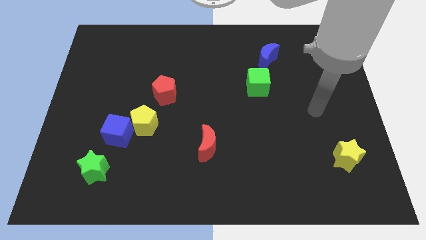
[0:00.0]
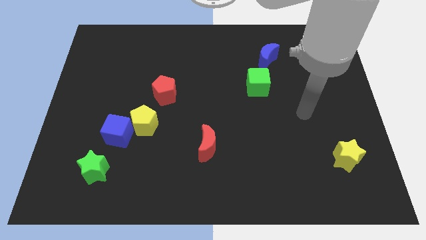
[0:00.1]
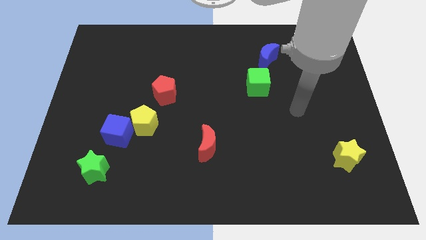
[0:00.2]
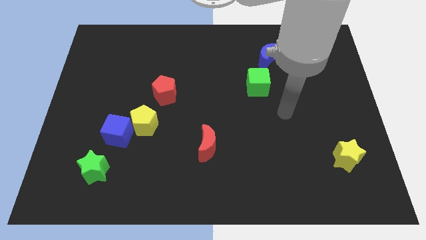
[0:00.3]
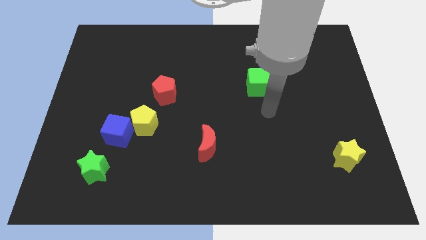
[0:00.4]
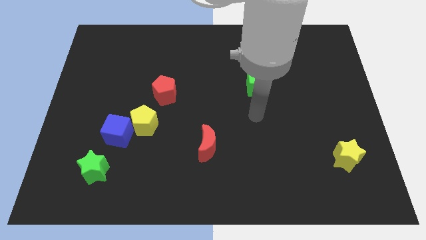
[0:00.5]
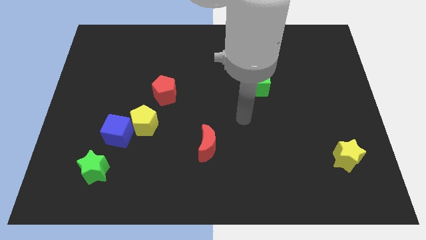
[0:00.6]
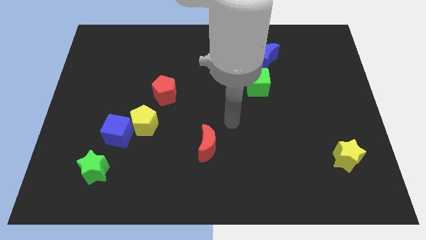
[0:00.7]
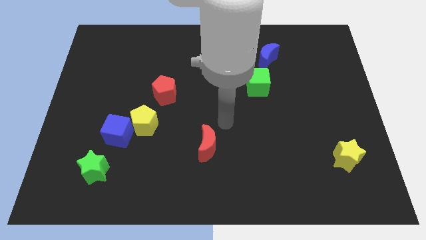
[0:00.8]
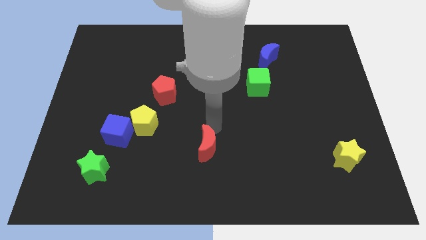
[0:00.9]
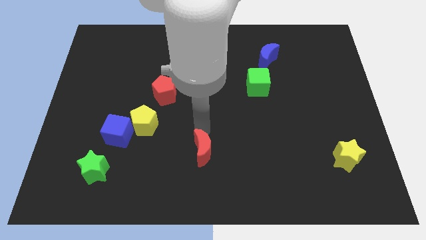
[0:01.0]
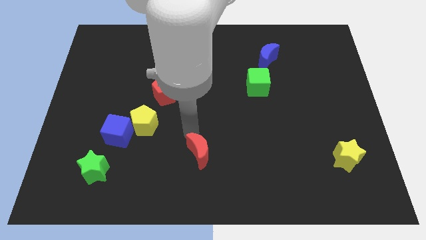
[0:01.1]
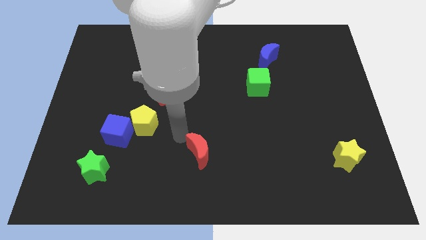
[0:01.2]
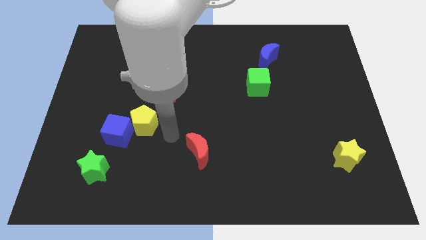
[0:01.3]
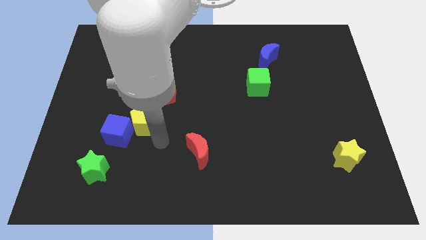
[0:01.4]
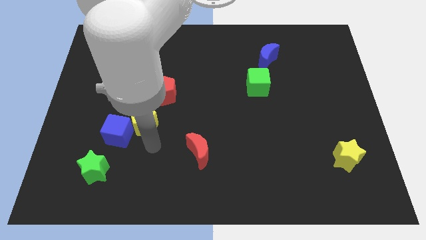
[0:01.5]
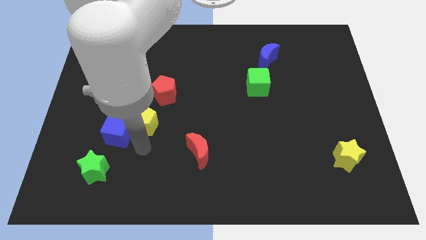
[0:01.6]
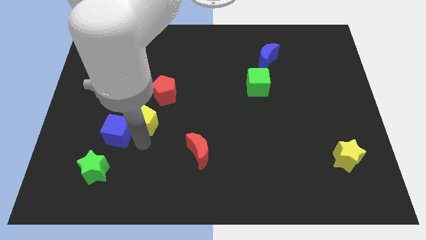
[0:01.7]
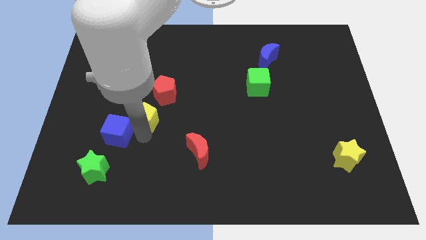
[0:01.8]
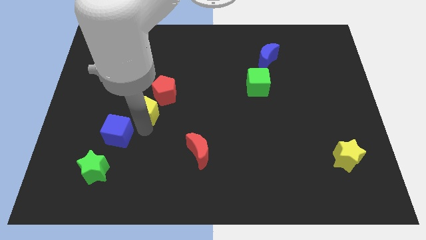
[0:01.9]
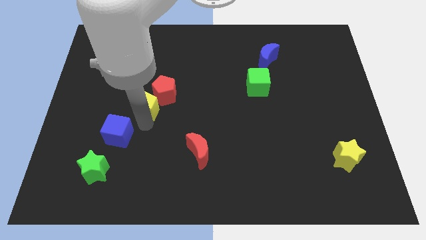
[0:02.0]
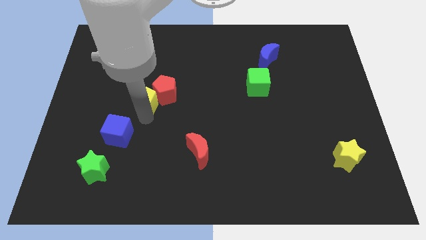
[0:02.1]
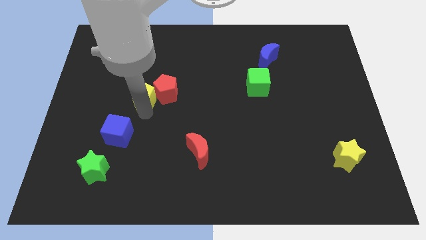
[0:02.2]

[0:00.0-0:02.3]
slide the yellow pentagon up a little bit

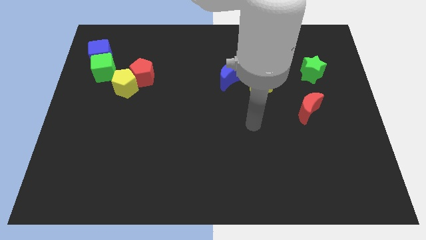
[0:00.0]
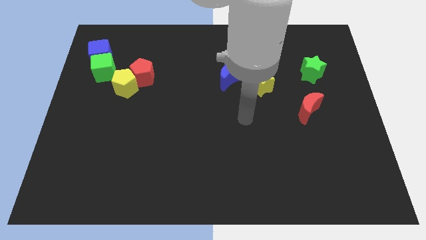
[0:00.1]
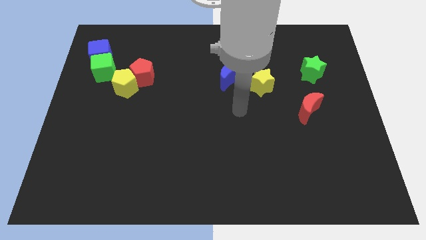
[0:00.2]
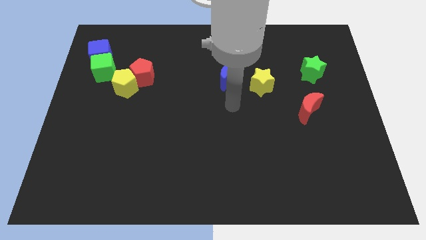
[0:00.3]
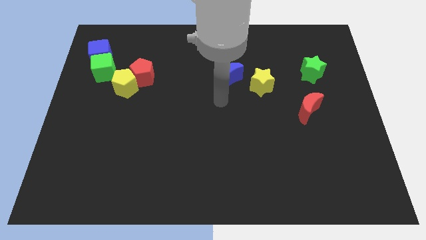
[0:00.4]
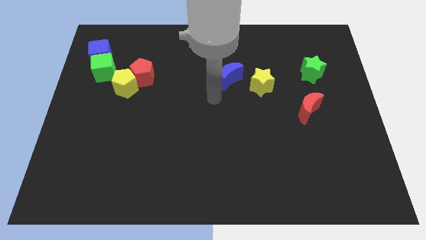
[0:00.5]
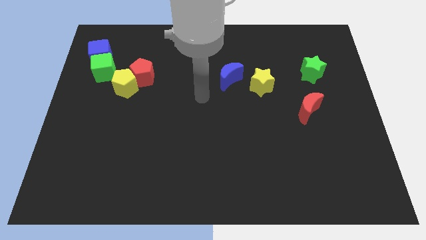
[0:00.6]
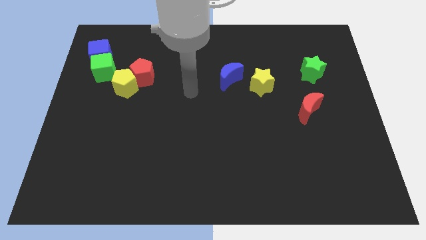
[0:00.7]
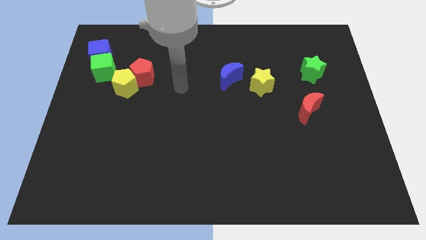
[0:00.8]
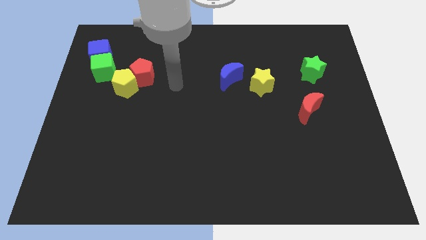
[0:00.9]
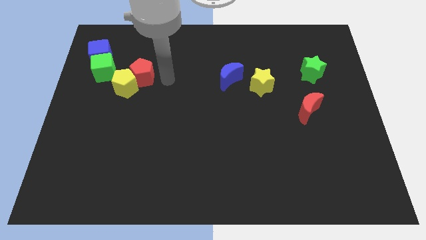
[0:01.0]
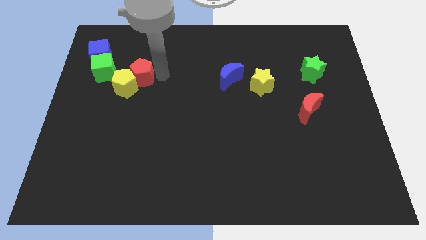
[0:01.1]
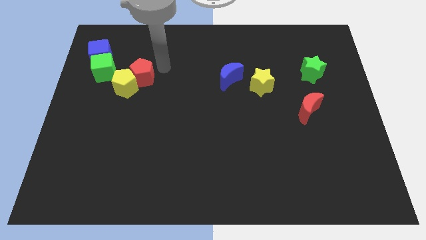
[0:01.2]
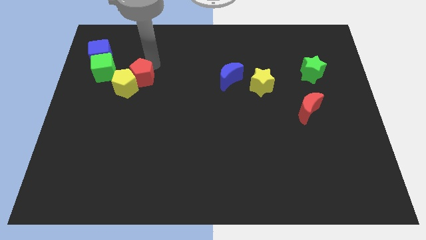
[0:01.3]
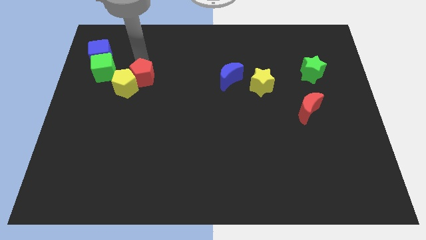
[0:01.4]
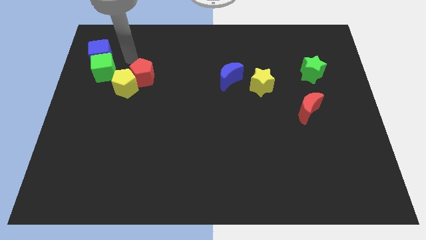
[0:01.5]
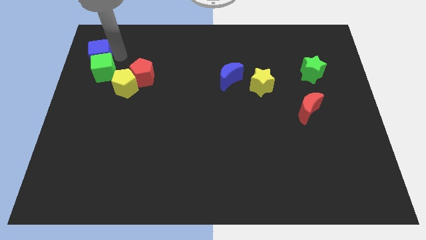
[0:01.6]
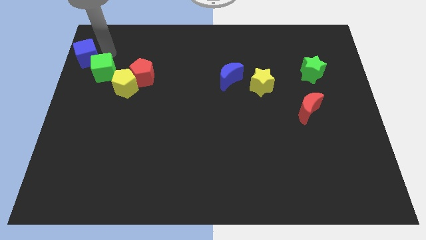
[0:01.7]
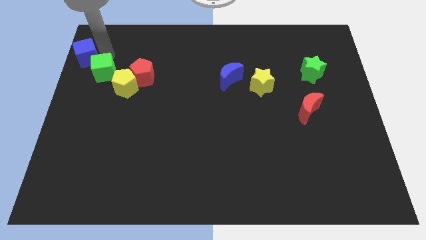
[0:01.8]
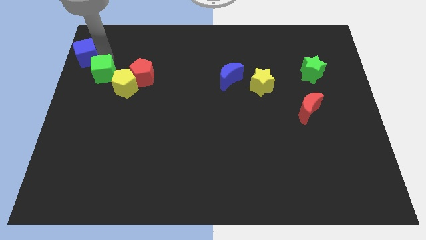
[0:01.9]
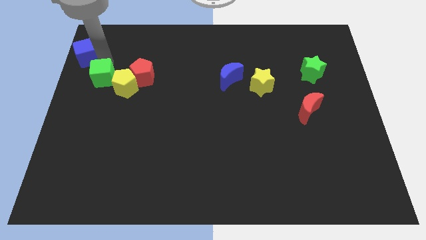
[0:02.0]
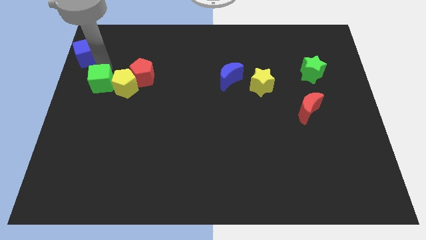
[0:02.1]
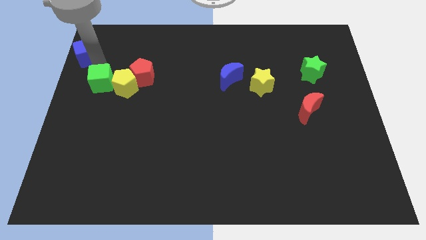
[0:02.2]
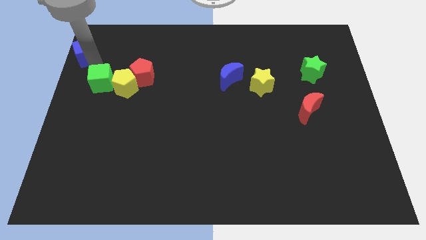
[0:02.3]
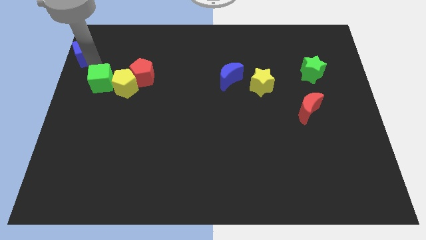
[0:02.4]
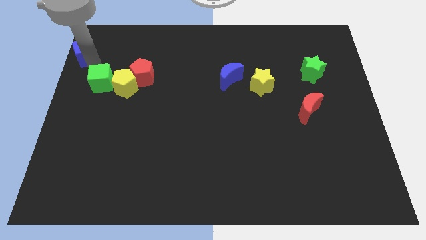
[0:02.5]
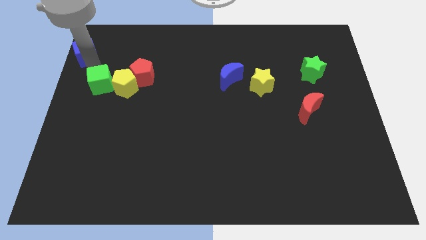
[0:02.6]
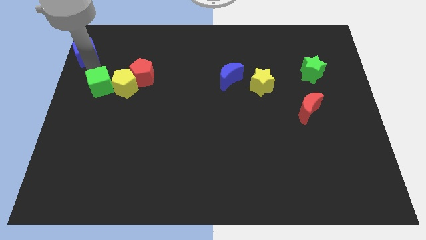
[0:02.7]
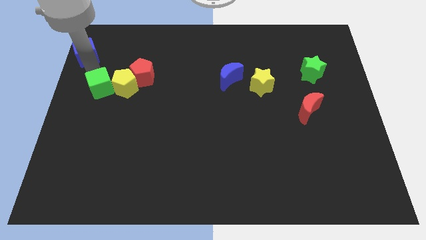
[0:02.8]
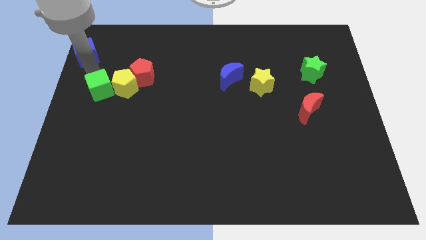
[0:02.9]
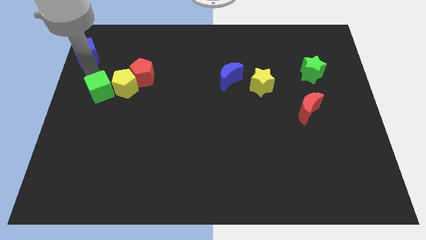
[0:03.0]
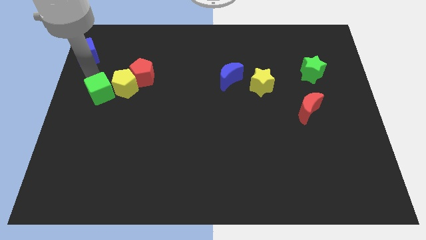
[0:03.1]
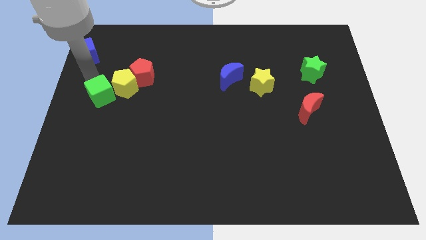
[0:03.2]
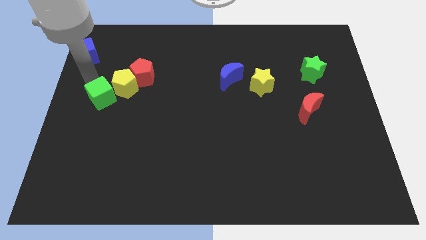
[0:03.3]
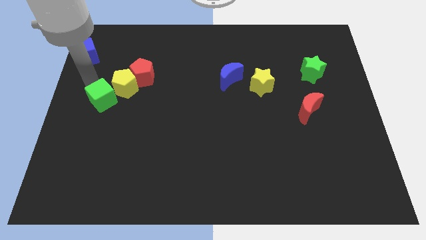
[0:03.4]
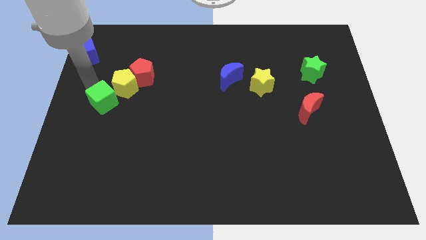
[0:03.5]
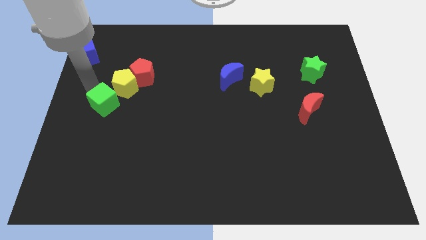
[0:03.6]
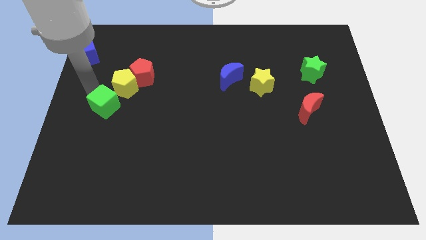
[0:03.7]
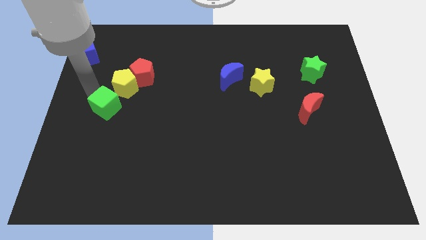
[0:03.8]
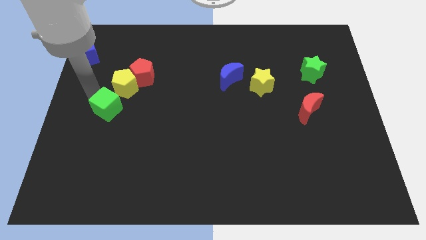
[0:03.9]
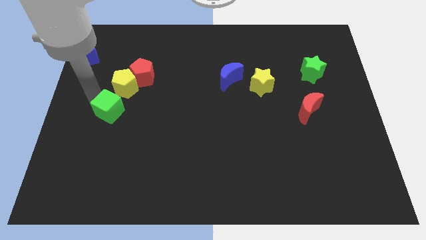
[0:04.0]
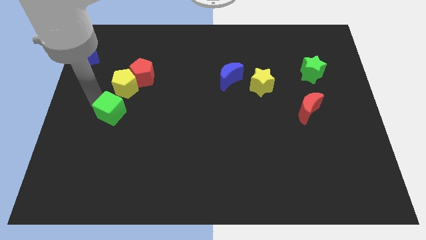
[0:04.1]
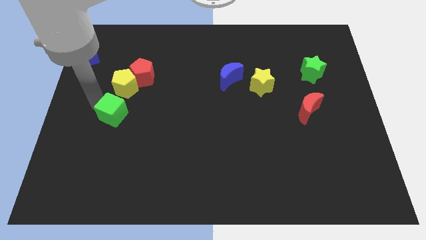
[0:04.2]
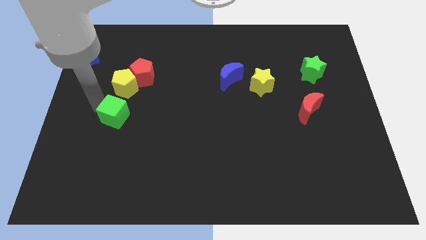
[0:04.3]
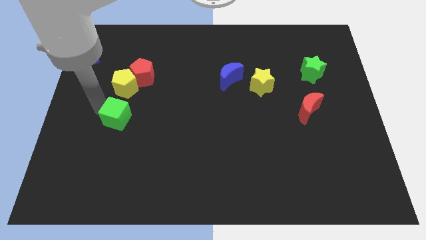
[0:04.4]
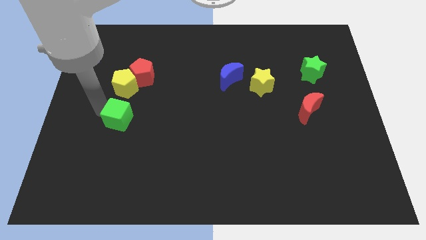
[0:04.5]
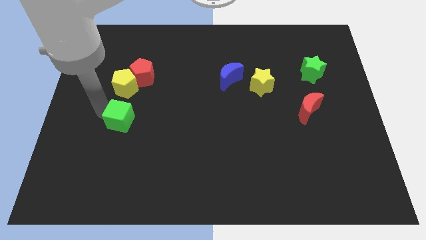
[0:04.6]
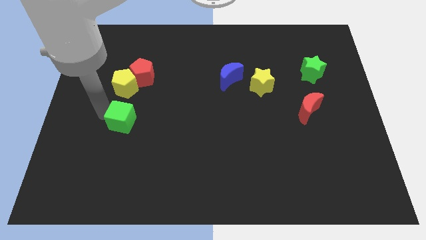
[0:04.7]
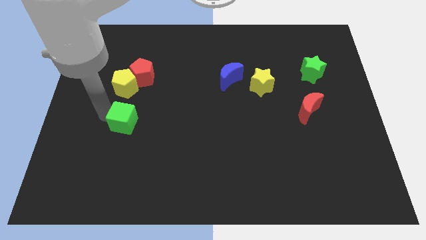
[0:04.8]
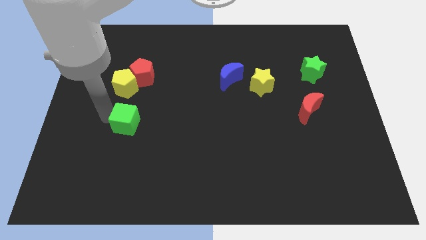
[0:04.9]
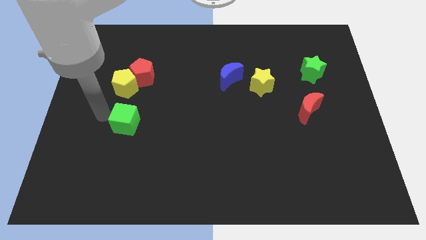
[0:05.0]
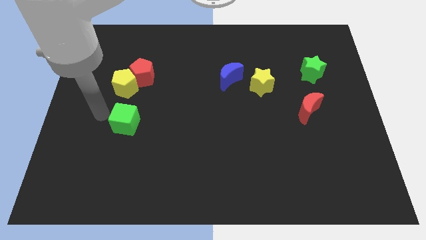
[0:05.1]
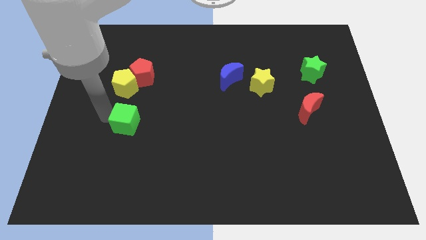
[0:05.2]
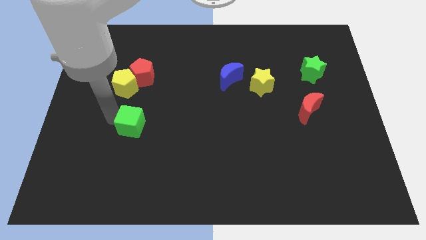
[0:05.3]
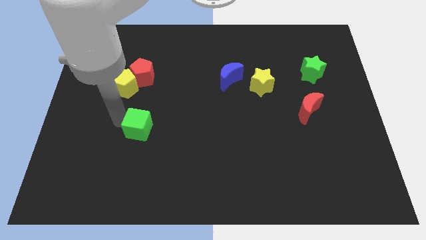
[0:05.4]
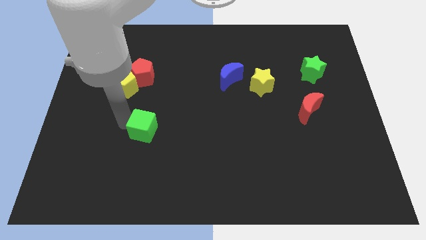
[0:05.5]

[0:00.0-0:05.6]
slide the green cube diagonally downwards and to the right

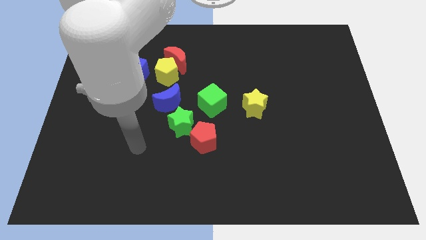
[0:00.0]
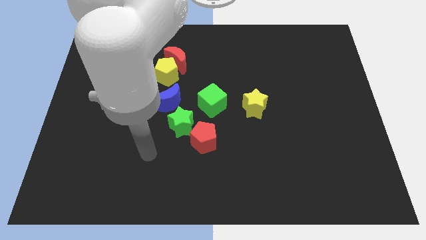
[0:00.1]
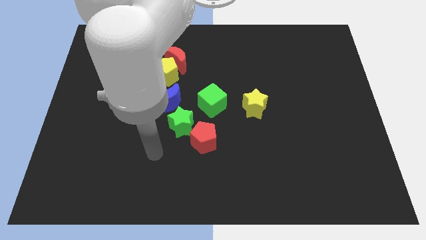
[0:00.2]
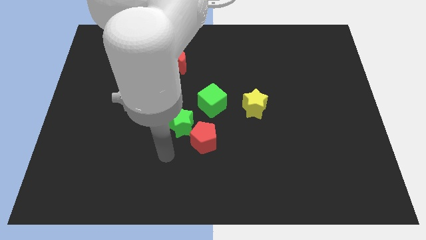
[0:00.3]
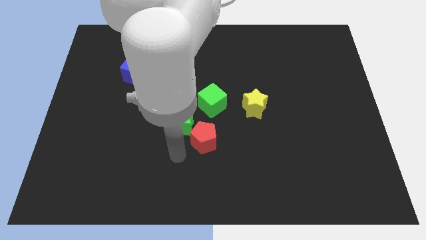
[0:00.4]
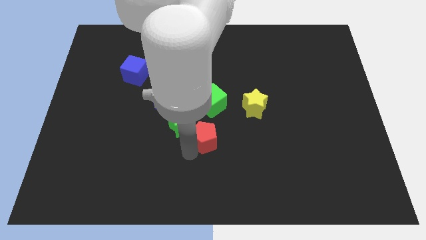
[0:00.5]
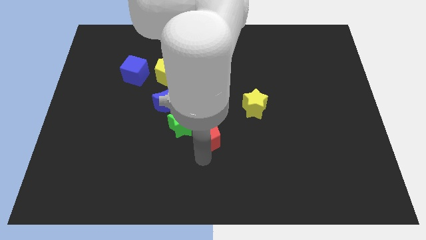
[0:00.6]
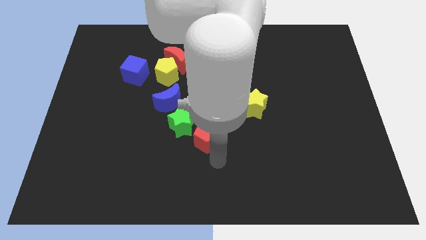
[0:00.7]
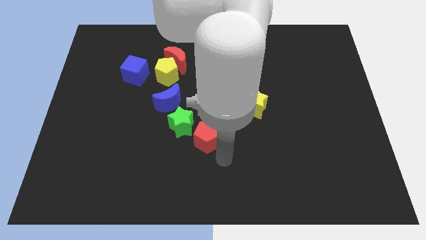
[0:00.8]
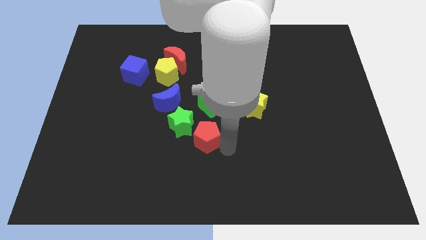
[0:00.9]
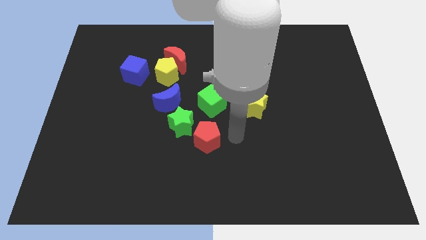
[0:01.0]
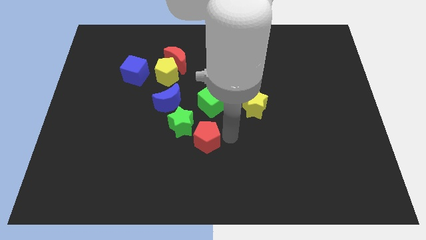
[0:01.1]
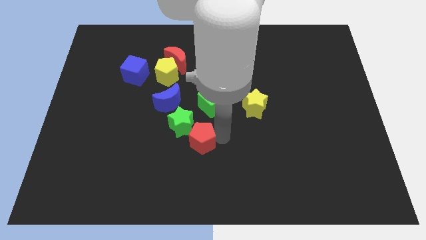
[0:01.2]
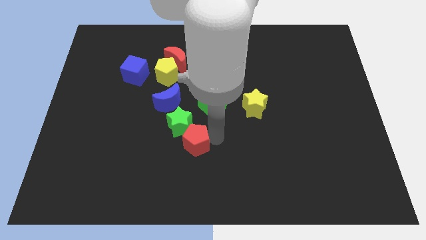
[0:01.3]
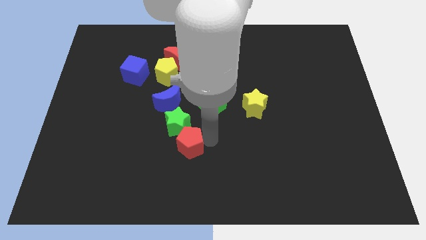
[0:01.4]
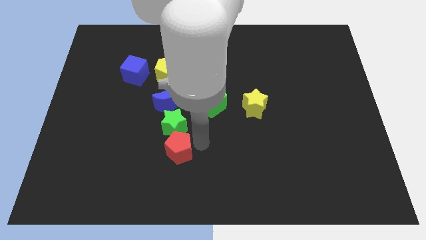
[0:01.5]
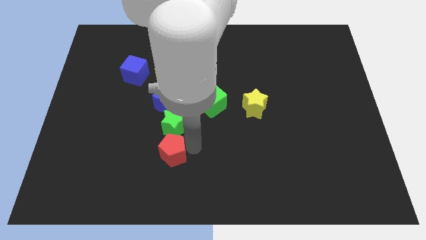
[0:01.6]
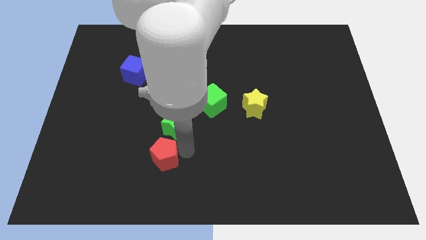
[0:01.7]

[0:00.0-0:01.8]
slide the red pentagon to the left a bit
